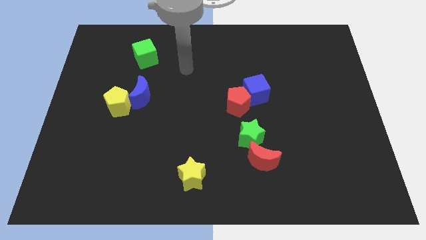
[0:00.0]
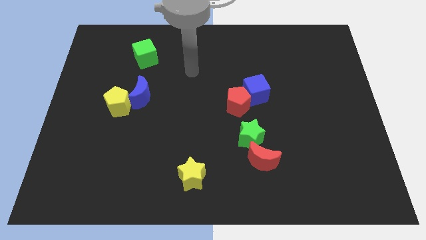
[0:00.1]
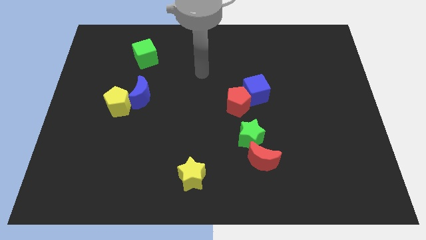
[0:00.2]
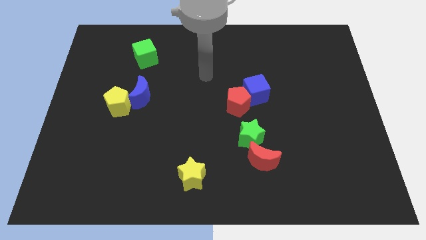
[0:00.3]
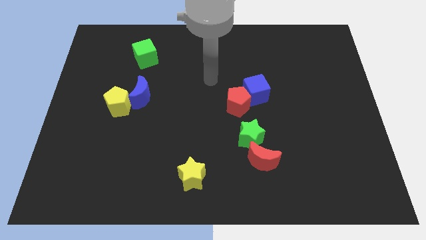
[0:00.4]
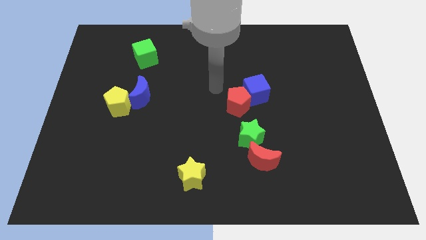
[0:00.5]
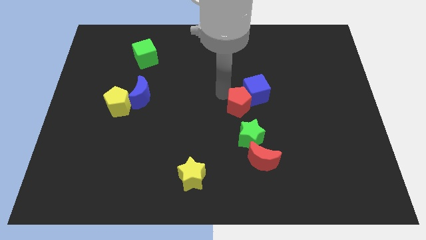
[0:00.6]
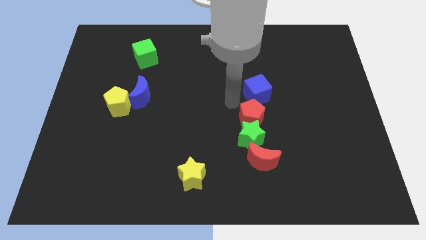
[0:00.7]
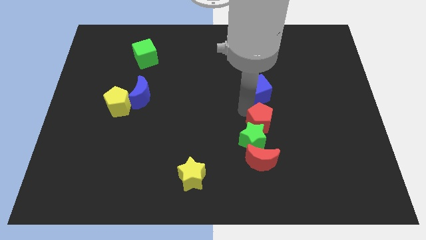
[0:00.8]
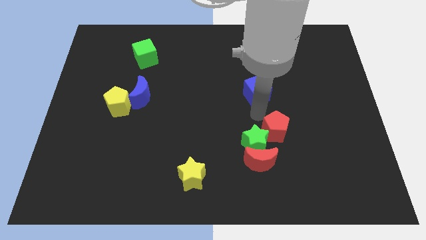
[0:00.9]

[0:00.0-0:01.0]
move the blue cube away from the red pentagon

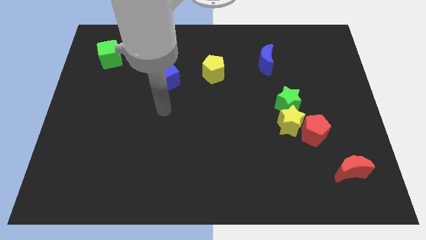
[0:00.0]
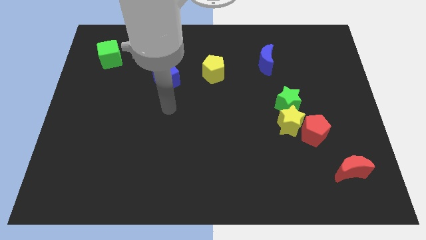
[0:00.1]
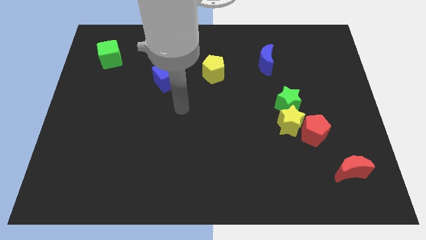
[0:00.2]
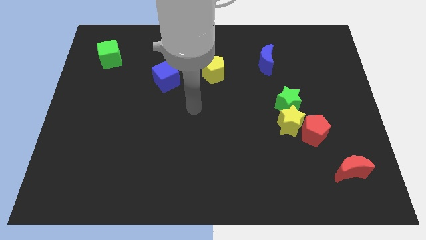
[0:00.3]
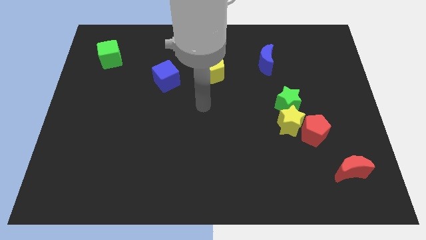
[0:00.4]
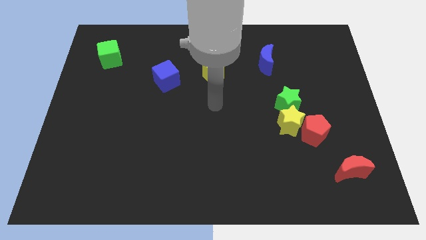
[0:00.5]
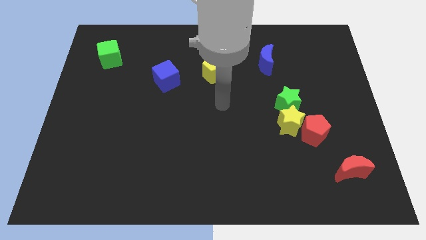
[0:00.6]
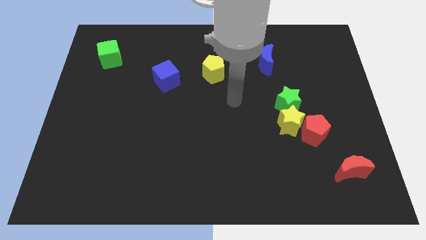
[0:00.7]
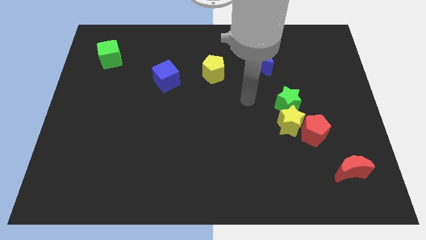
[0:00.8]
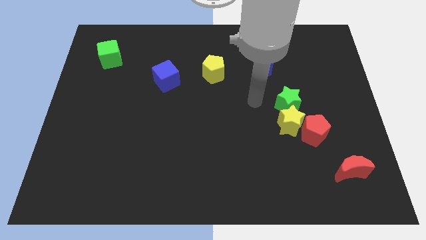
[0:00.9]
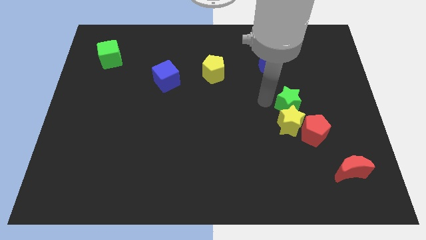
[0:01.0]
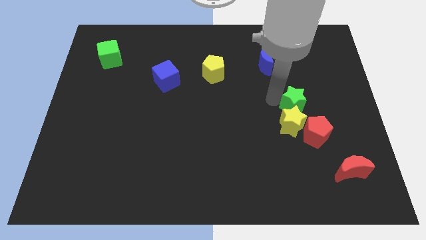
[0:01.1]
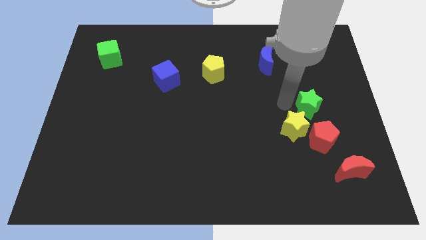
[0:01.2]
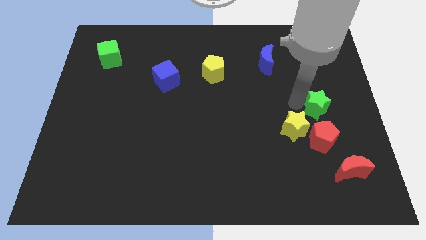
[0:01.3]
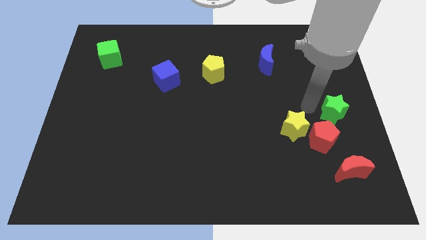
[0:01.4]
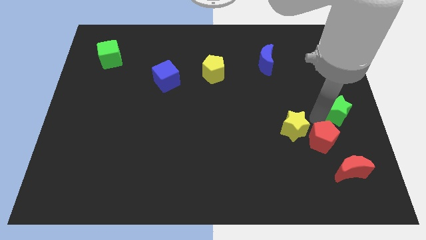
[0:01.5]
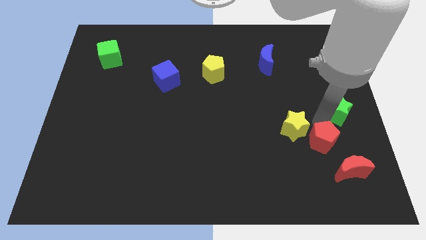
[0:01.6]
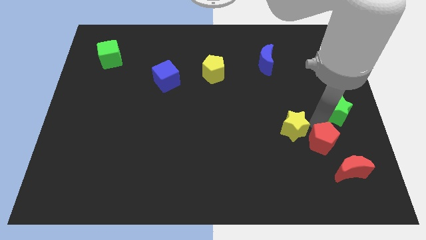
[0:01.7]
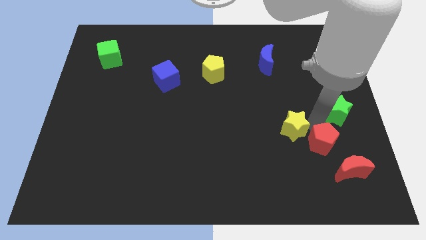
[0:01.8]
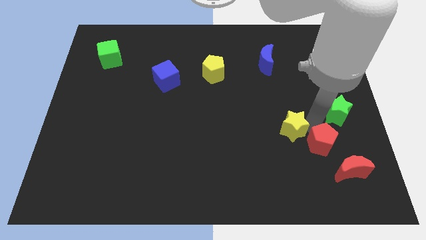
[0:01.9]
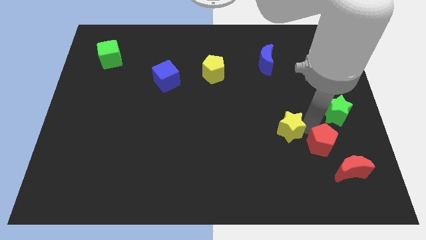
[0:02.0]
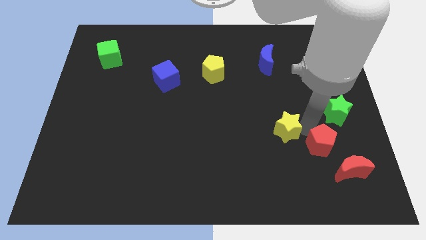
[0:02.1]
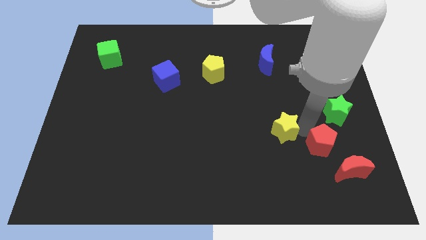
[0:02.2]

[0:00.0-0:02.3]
separate the yellow star from the green star and red pentagon

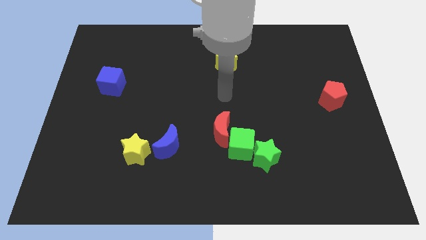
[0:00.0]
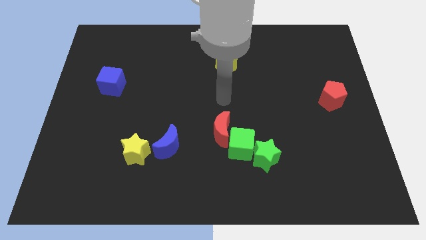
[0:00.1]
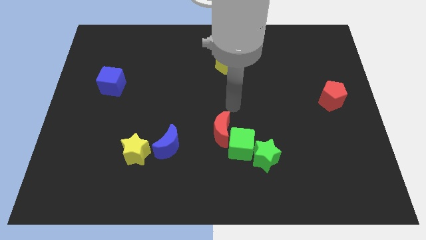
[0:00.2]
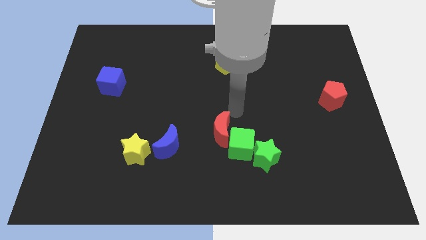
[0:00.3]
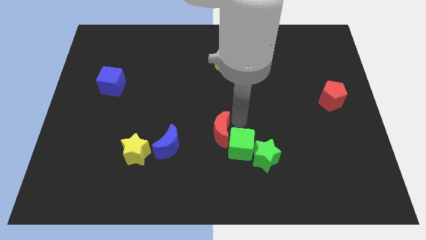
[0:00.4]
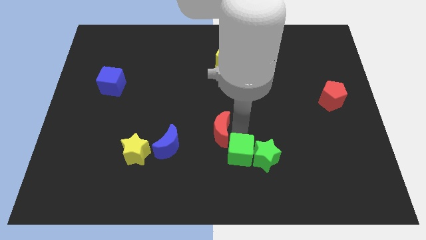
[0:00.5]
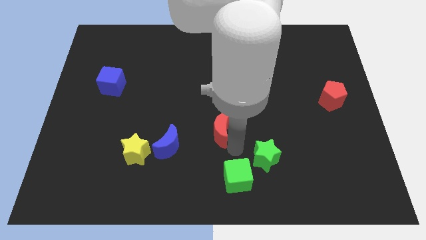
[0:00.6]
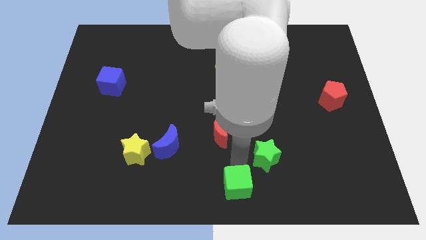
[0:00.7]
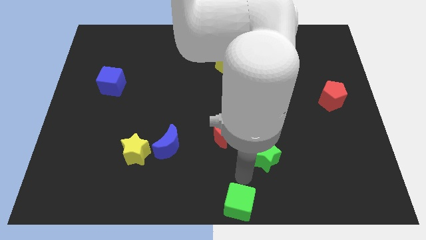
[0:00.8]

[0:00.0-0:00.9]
separate the green star from the green cube

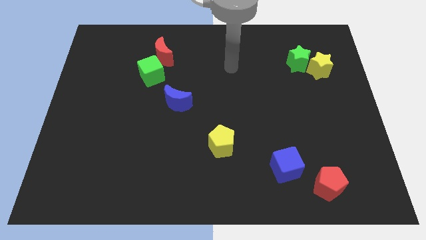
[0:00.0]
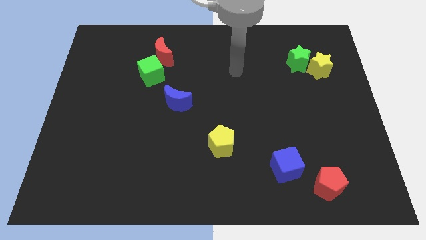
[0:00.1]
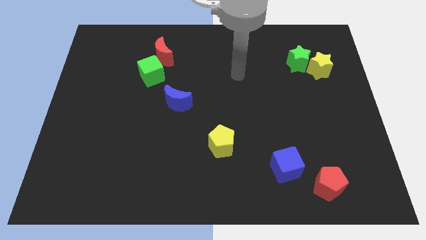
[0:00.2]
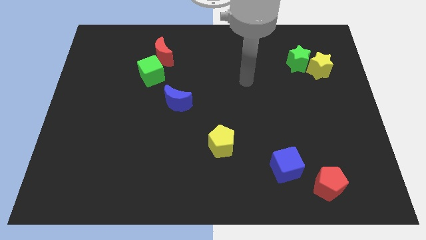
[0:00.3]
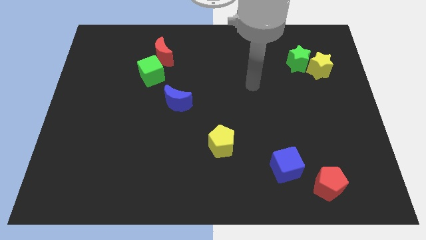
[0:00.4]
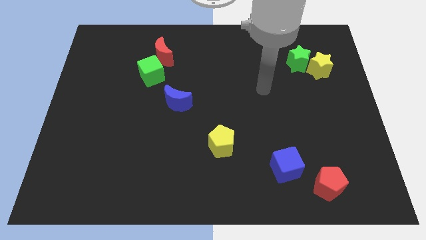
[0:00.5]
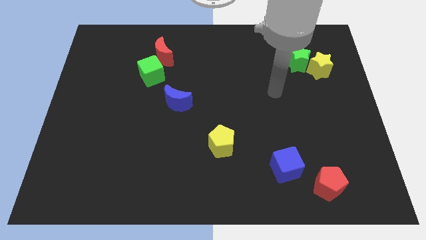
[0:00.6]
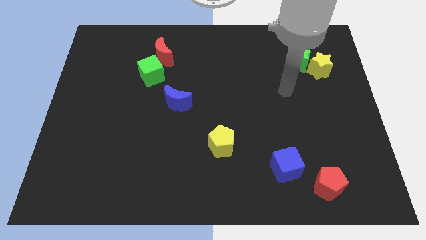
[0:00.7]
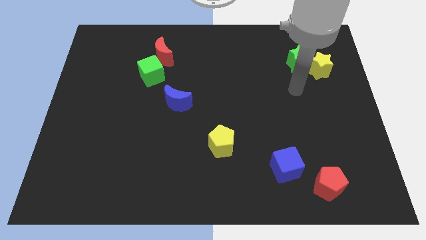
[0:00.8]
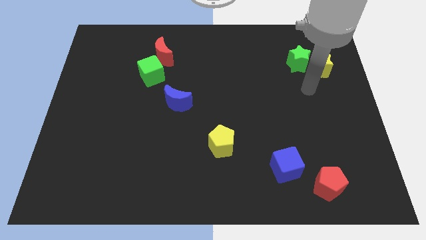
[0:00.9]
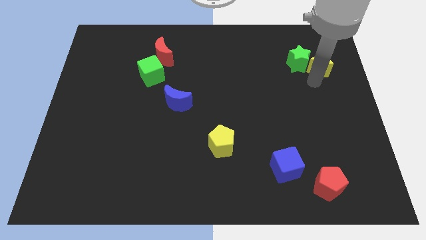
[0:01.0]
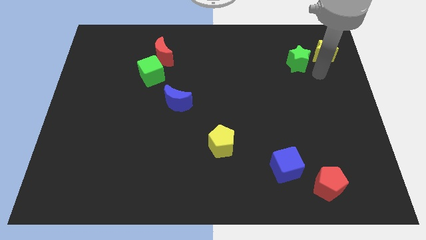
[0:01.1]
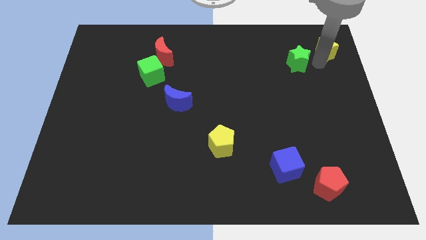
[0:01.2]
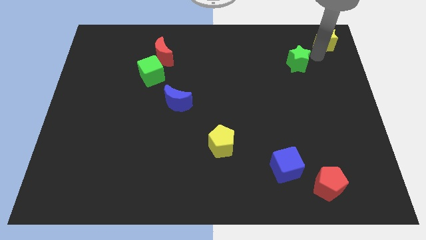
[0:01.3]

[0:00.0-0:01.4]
pull the green star apart from the yellow star

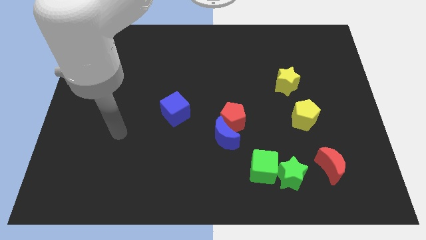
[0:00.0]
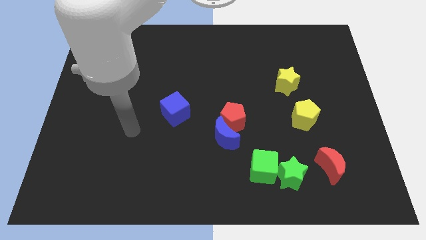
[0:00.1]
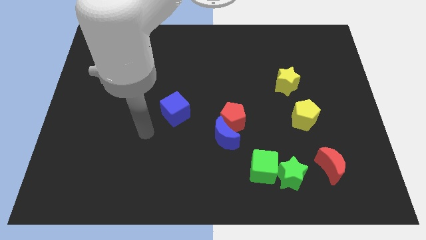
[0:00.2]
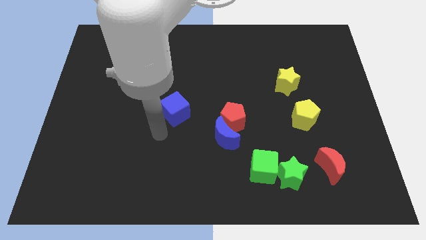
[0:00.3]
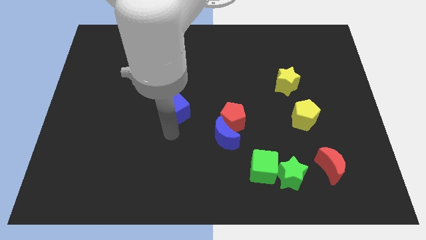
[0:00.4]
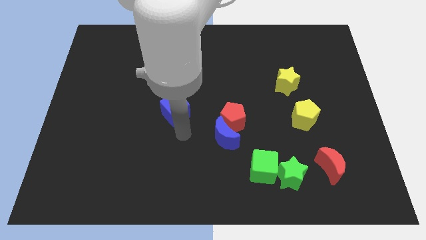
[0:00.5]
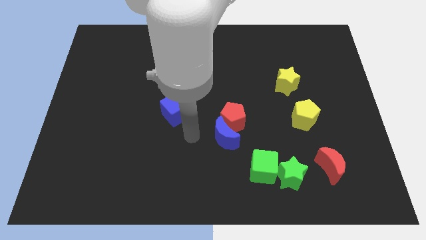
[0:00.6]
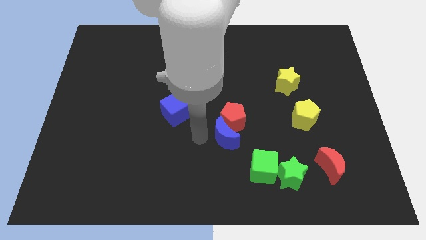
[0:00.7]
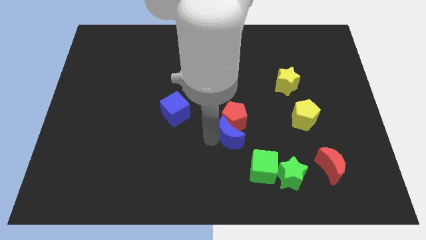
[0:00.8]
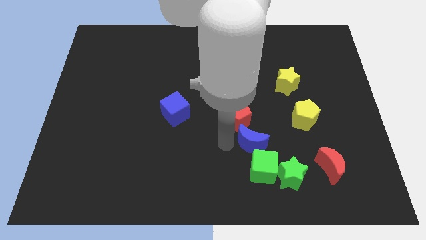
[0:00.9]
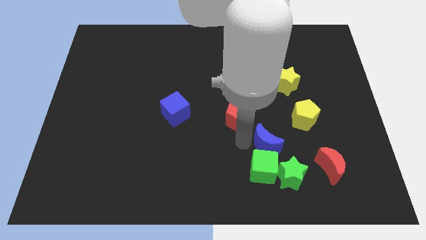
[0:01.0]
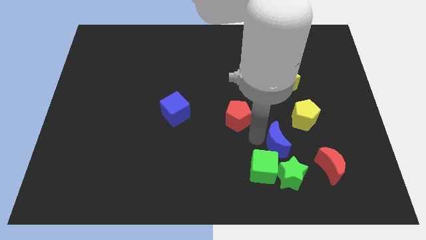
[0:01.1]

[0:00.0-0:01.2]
move the red pentagon away from the blue moon

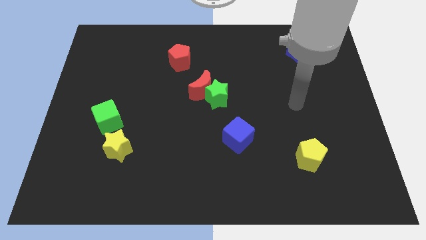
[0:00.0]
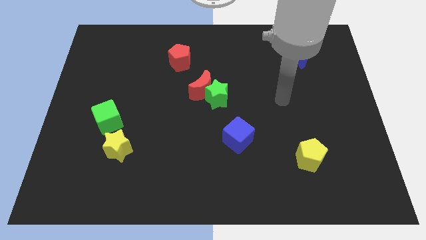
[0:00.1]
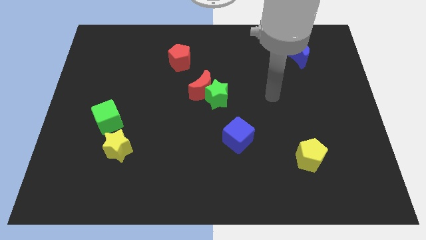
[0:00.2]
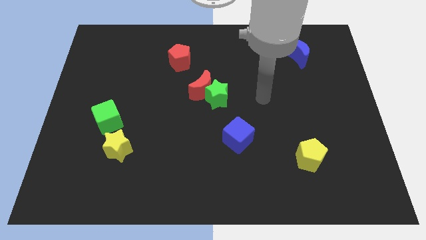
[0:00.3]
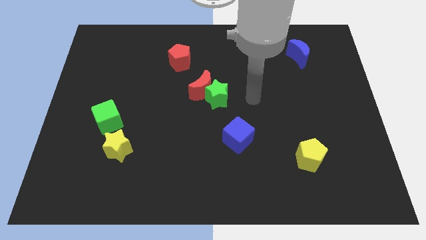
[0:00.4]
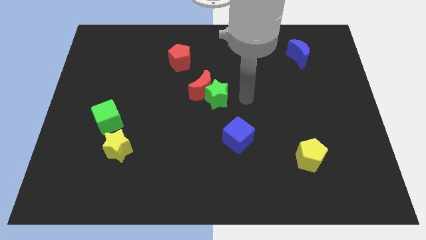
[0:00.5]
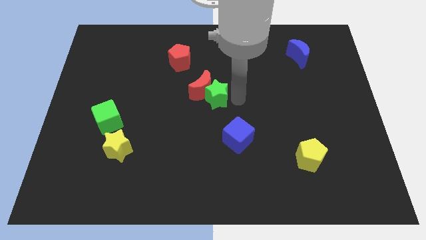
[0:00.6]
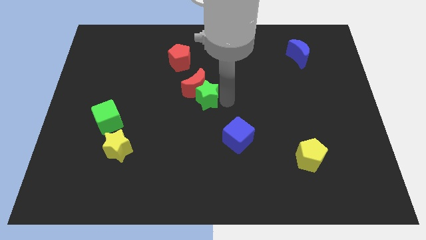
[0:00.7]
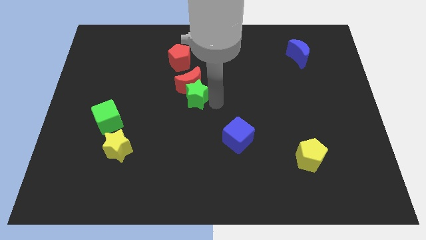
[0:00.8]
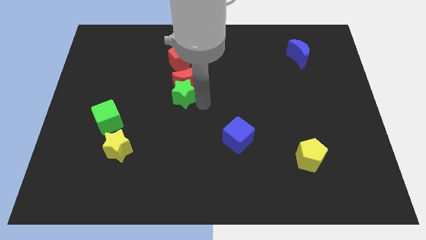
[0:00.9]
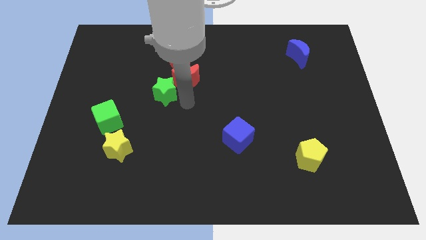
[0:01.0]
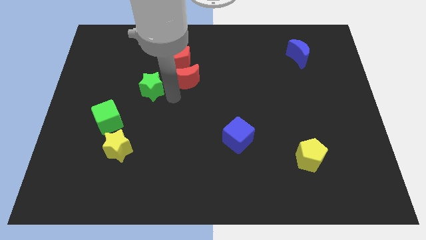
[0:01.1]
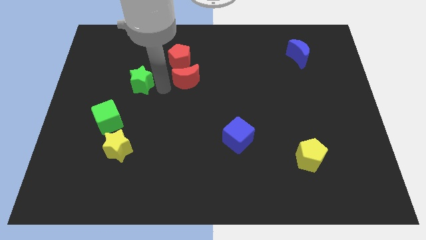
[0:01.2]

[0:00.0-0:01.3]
separate the red moon from the green star

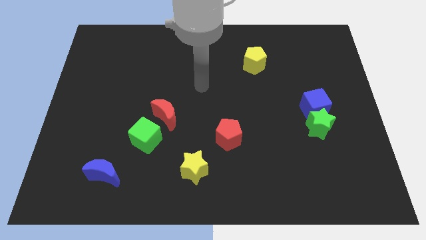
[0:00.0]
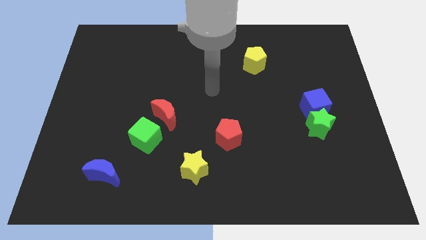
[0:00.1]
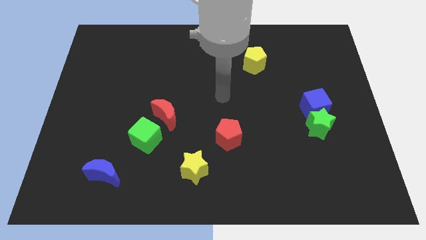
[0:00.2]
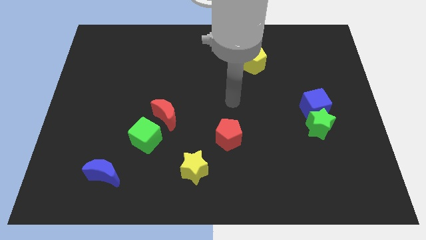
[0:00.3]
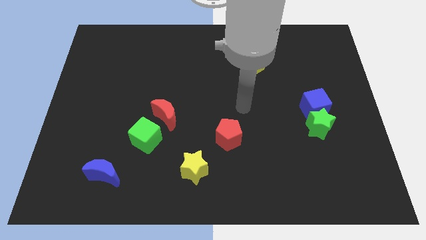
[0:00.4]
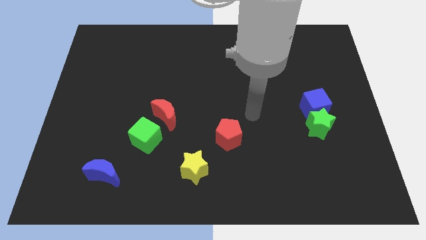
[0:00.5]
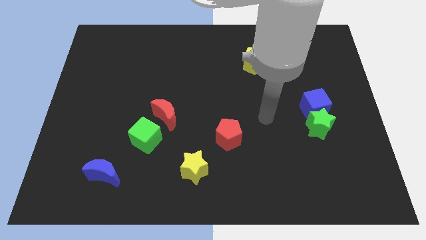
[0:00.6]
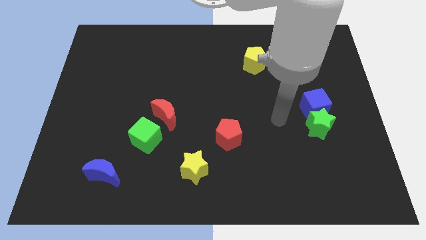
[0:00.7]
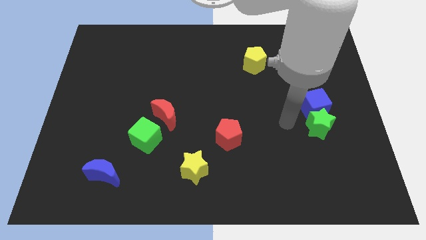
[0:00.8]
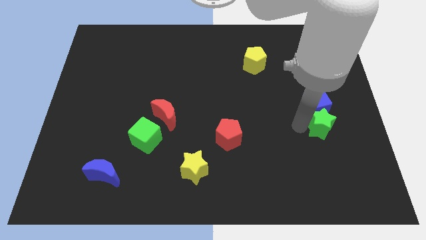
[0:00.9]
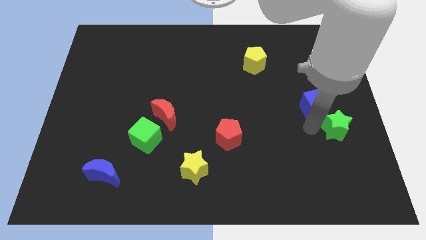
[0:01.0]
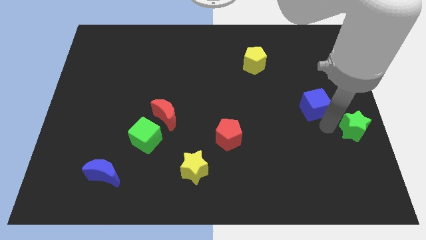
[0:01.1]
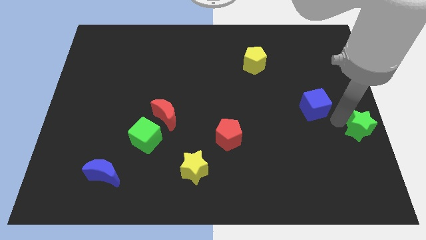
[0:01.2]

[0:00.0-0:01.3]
pull the blue cube apart from the green star
